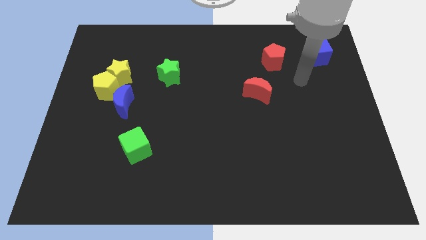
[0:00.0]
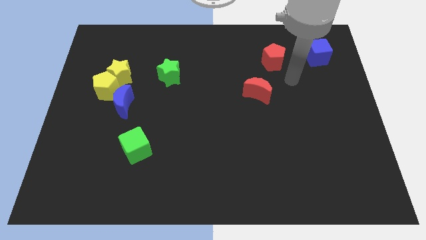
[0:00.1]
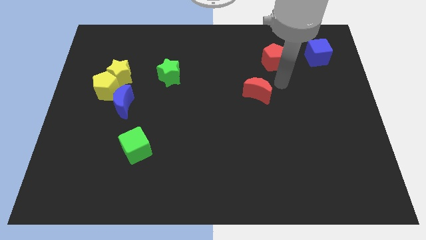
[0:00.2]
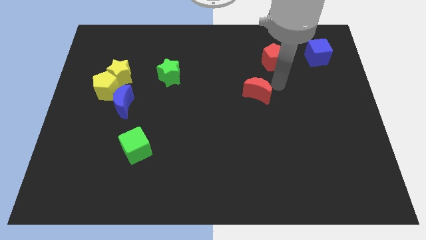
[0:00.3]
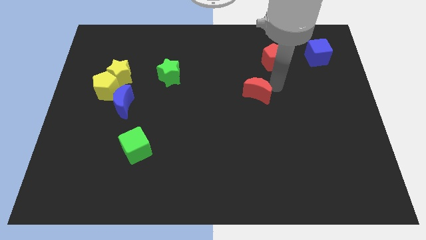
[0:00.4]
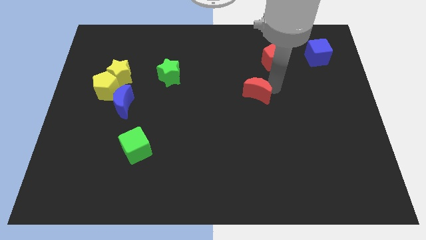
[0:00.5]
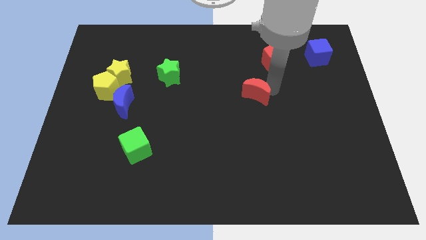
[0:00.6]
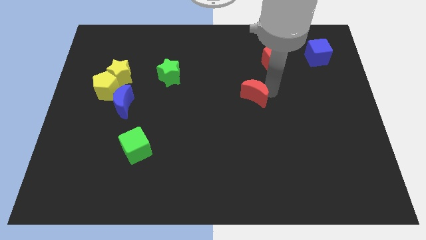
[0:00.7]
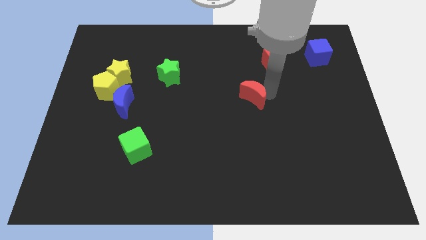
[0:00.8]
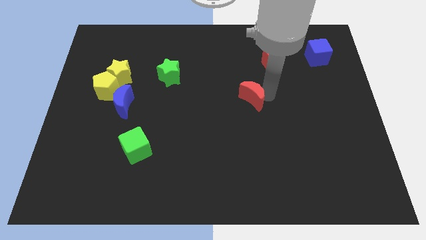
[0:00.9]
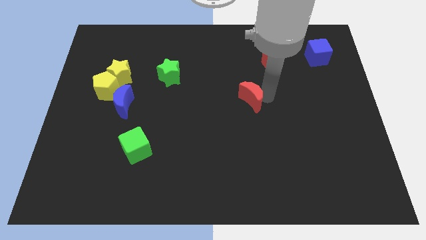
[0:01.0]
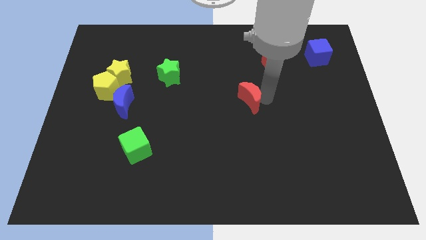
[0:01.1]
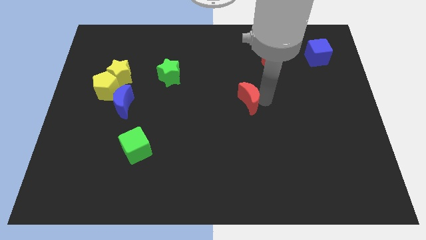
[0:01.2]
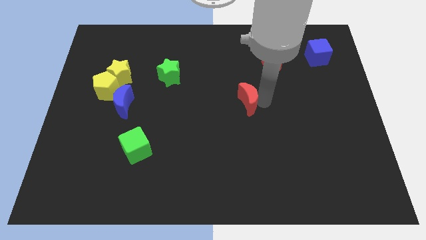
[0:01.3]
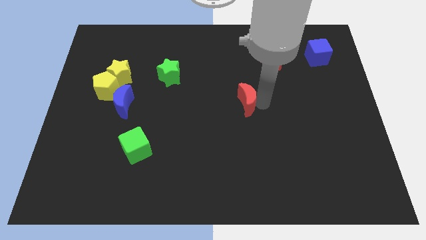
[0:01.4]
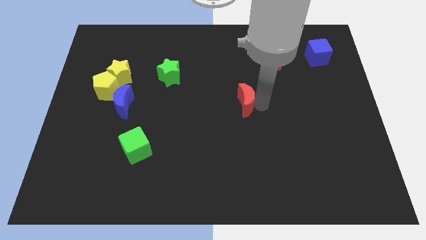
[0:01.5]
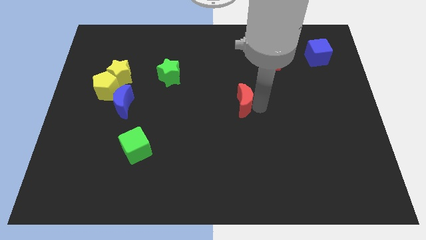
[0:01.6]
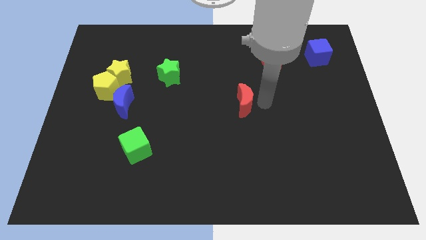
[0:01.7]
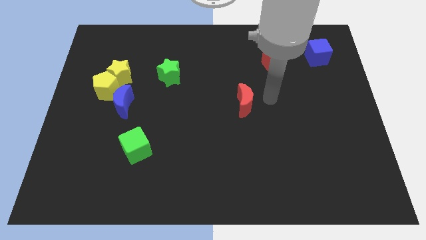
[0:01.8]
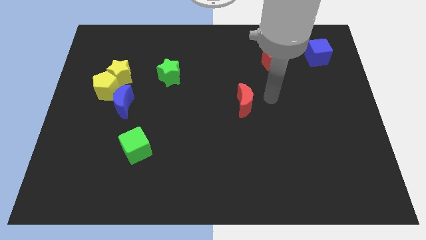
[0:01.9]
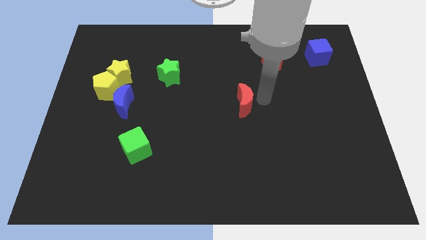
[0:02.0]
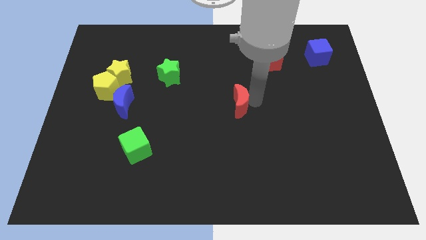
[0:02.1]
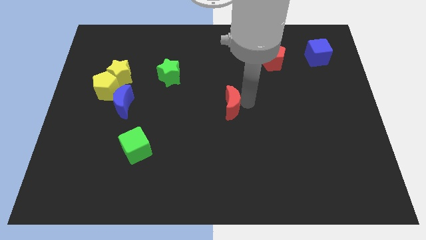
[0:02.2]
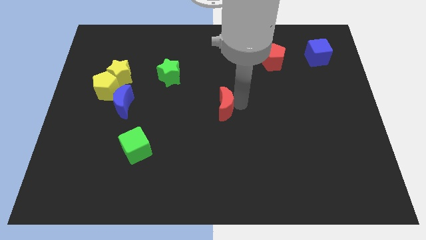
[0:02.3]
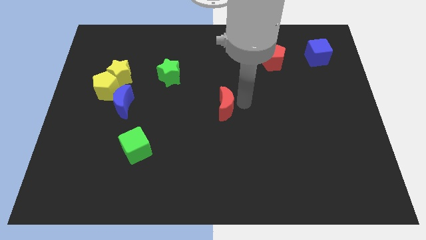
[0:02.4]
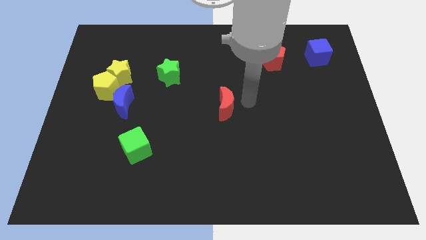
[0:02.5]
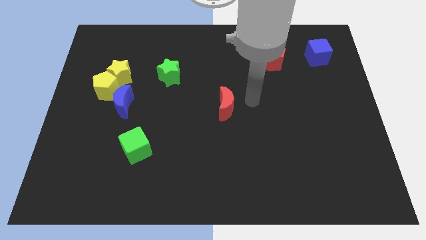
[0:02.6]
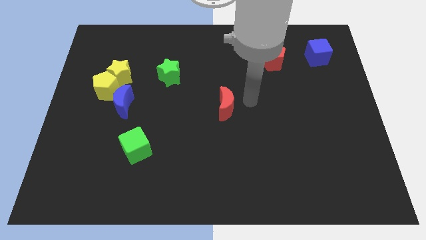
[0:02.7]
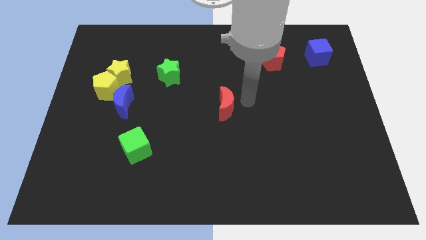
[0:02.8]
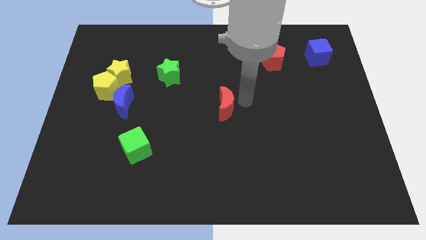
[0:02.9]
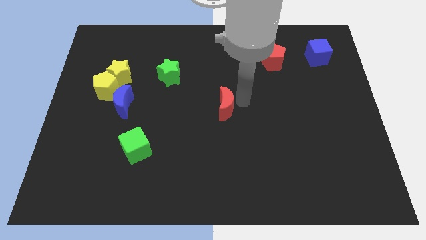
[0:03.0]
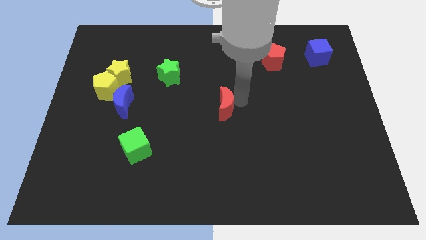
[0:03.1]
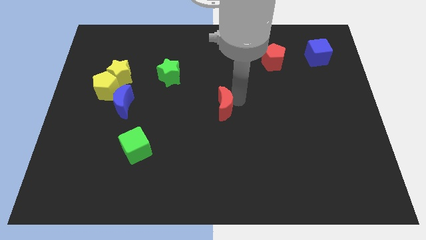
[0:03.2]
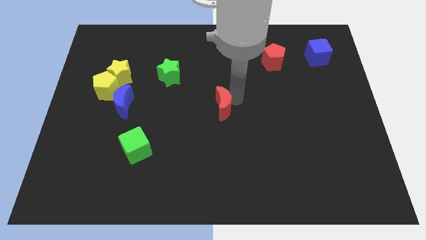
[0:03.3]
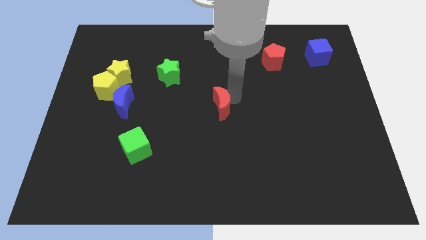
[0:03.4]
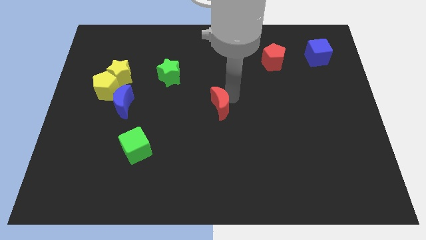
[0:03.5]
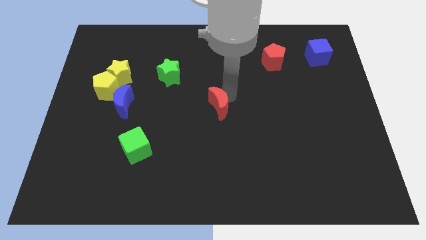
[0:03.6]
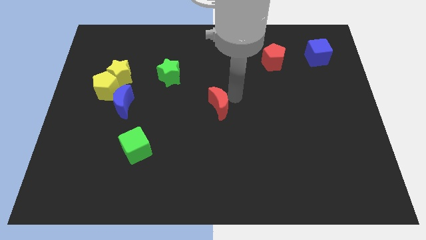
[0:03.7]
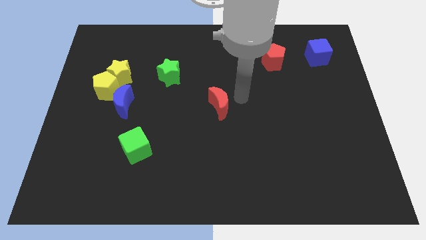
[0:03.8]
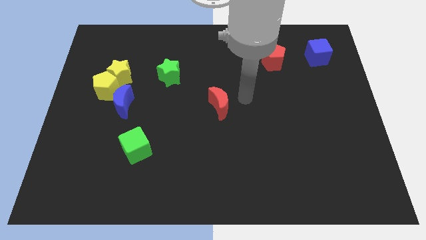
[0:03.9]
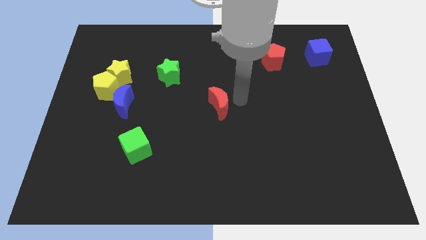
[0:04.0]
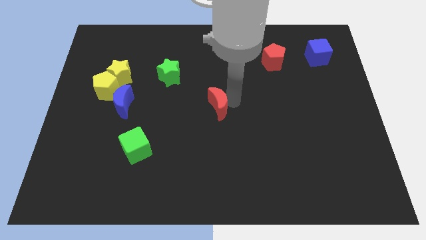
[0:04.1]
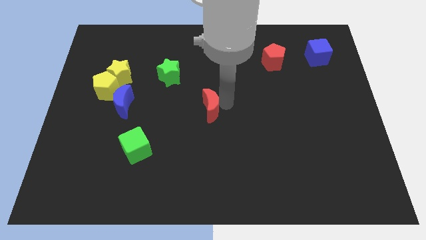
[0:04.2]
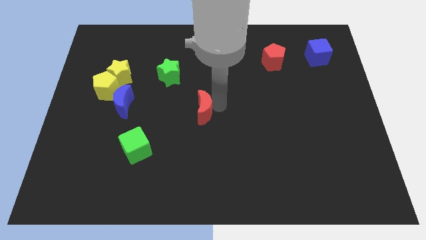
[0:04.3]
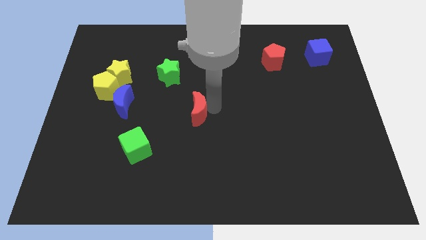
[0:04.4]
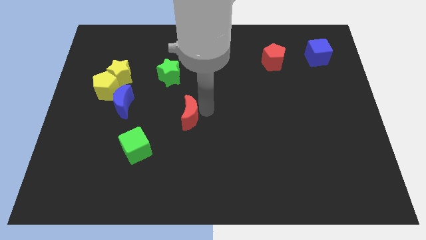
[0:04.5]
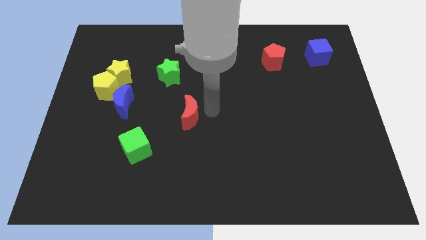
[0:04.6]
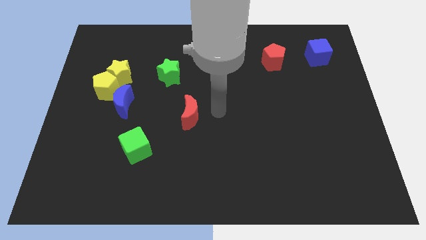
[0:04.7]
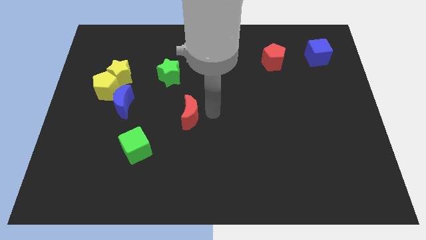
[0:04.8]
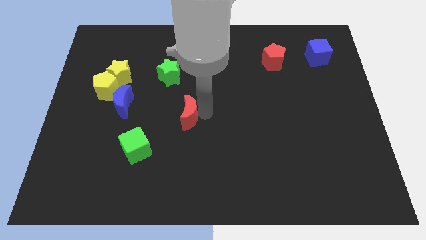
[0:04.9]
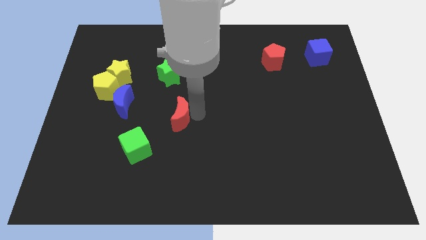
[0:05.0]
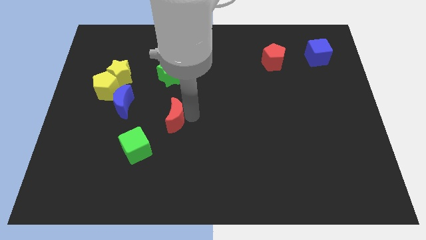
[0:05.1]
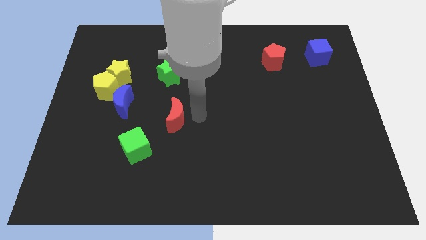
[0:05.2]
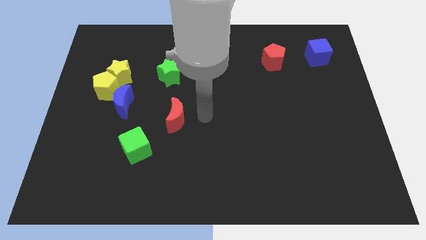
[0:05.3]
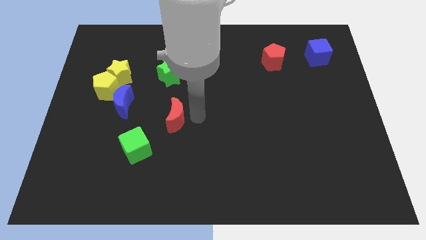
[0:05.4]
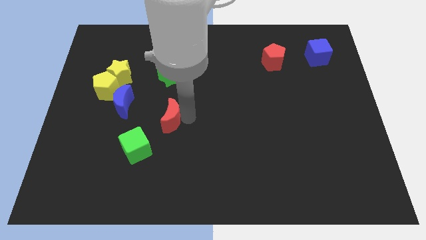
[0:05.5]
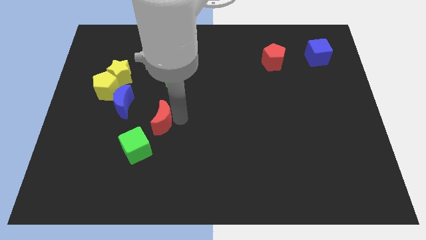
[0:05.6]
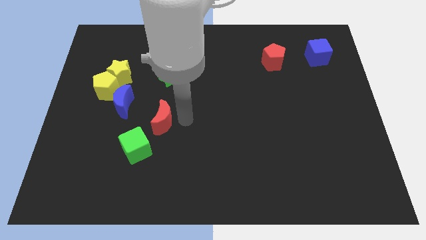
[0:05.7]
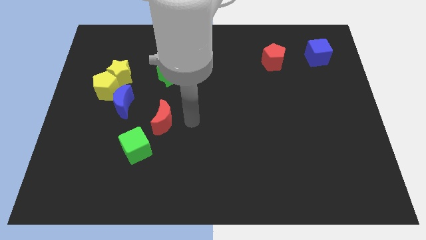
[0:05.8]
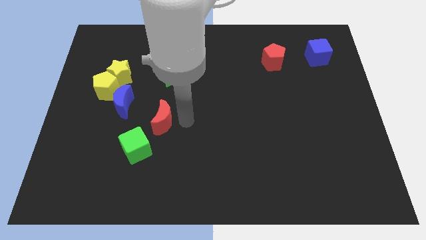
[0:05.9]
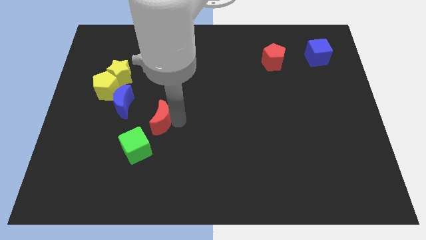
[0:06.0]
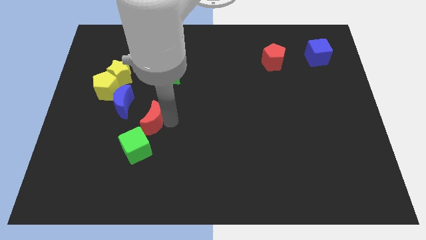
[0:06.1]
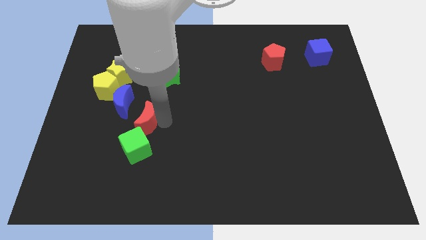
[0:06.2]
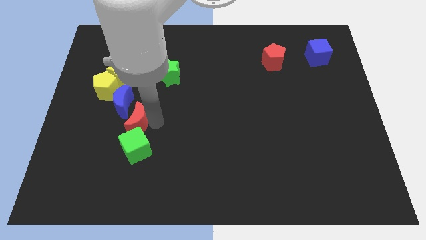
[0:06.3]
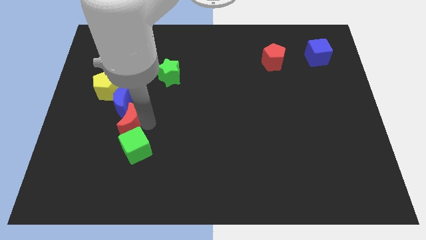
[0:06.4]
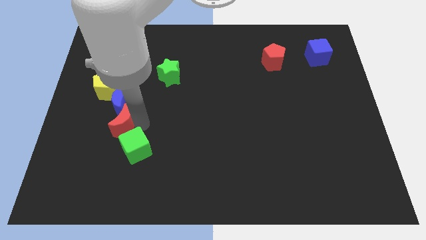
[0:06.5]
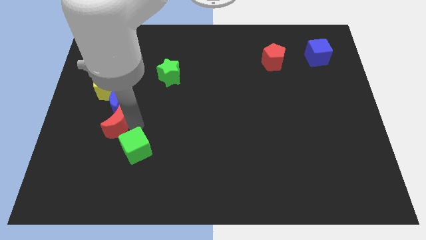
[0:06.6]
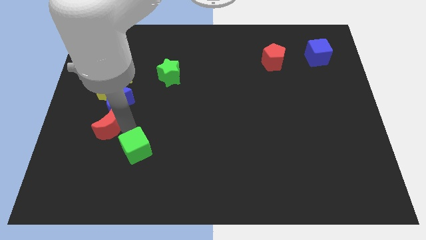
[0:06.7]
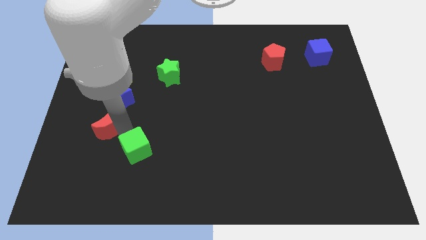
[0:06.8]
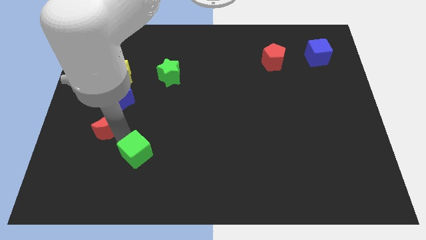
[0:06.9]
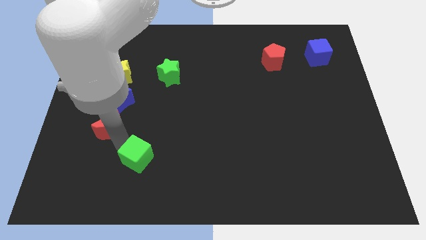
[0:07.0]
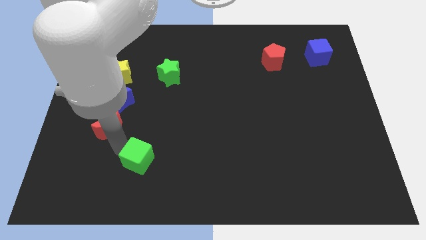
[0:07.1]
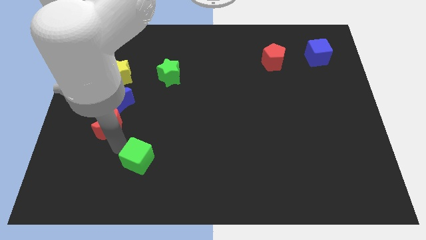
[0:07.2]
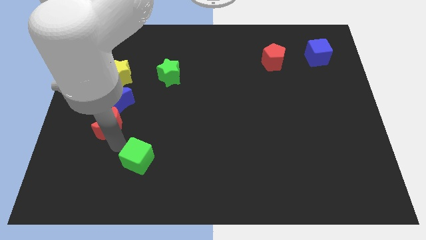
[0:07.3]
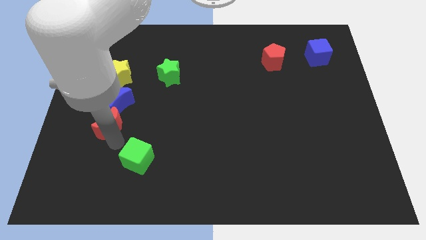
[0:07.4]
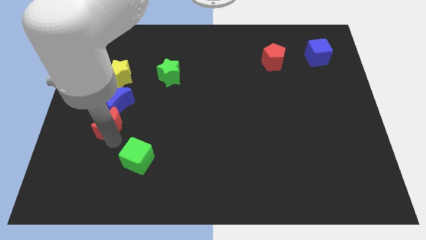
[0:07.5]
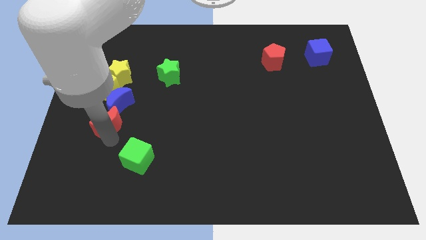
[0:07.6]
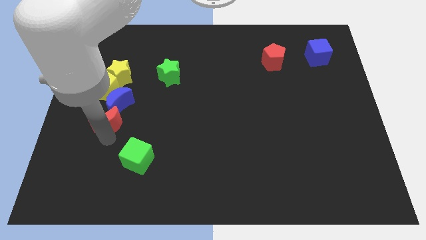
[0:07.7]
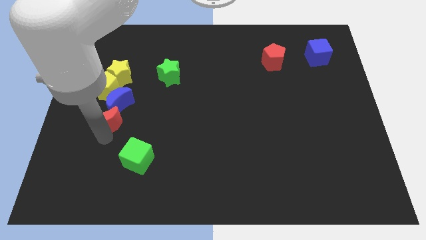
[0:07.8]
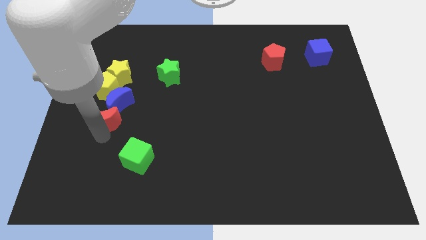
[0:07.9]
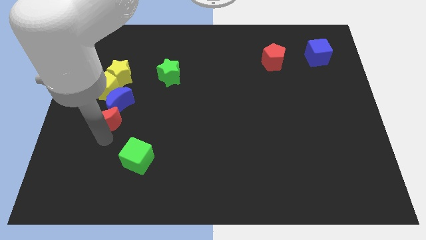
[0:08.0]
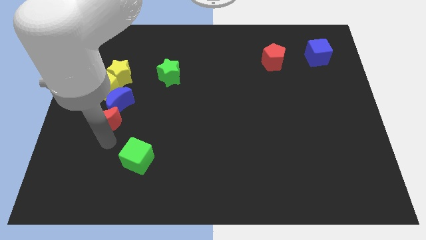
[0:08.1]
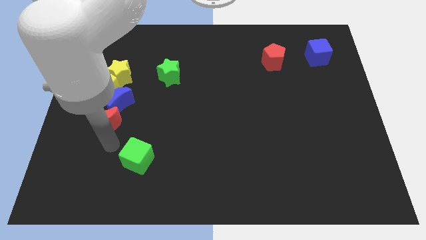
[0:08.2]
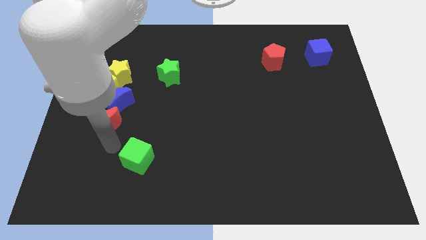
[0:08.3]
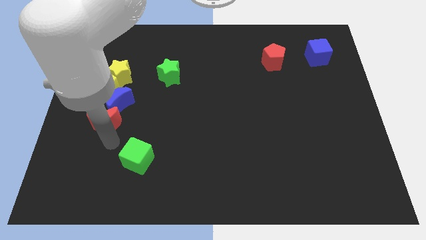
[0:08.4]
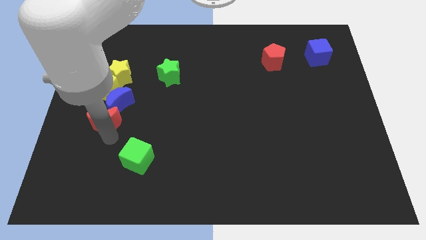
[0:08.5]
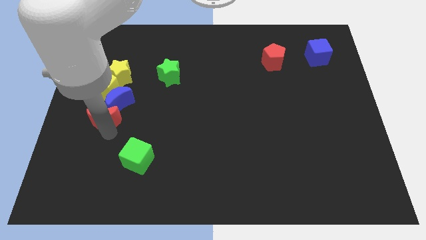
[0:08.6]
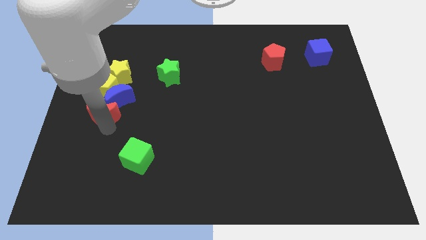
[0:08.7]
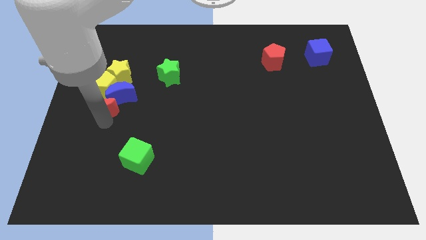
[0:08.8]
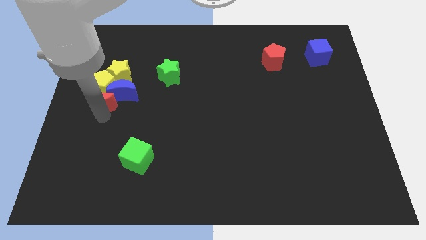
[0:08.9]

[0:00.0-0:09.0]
slide the red moon to the yellow pentagon
